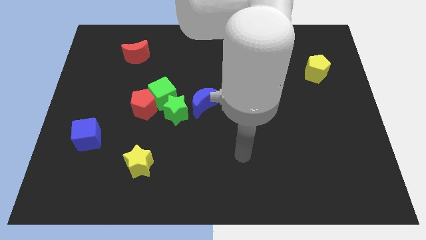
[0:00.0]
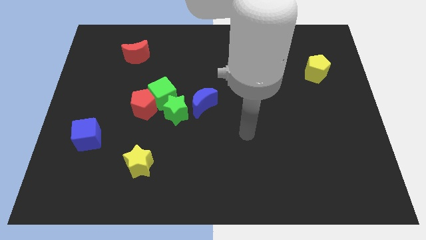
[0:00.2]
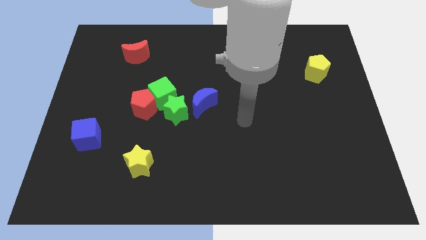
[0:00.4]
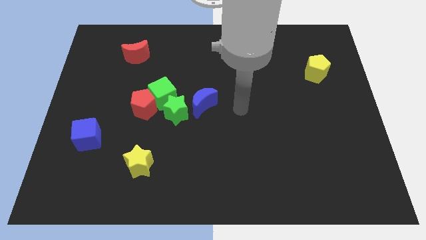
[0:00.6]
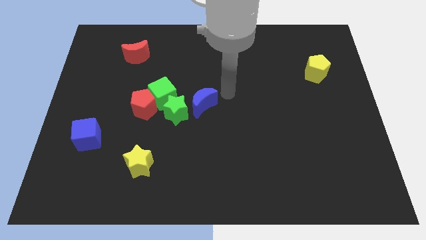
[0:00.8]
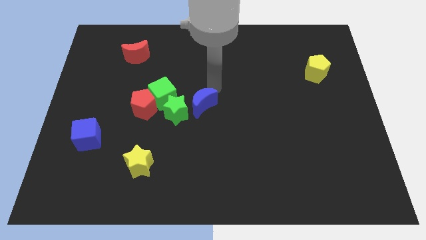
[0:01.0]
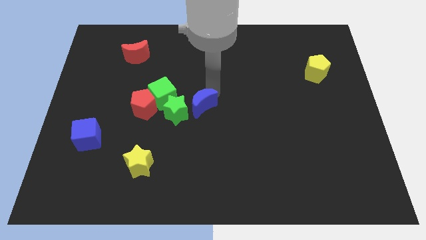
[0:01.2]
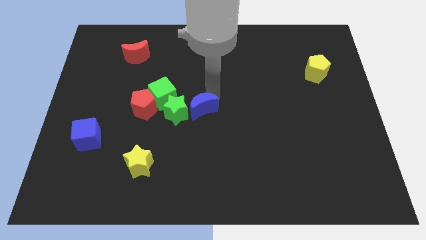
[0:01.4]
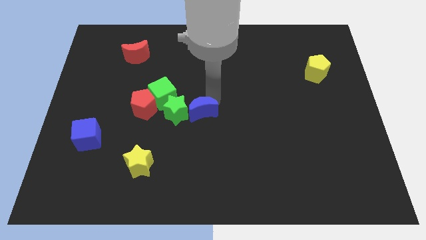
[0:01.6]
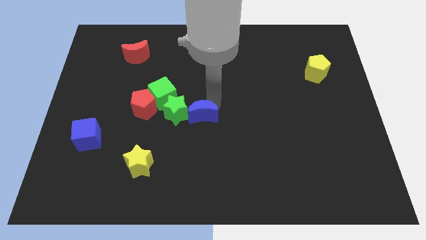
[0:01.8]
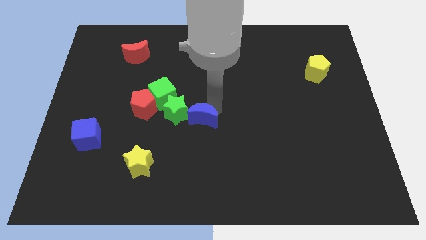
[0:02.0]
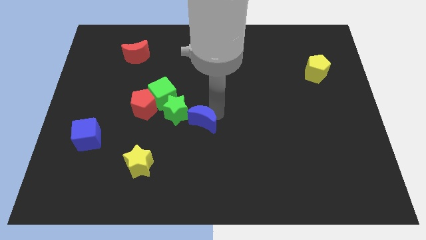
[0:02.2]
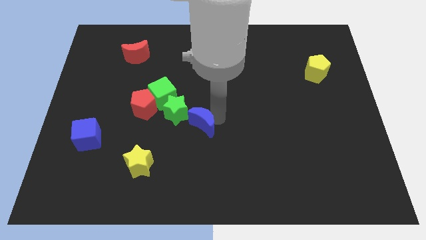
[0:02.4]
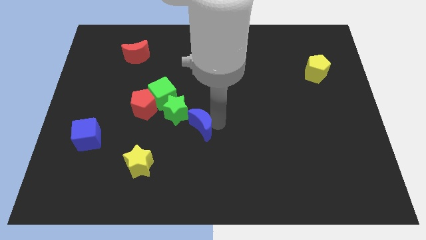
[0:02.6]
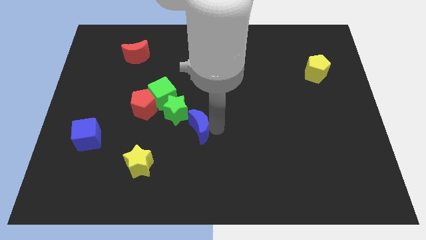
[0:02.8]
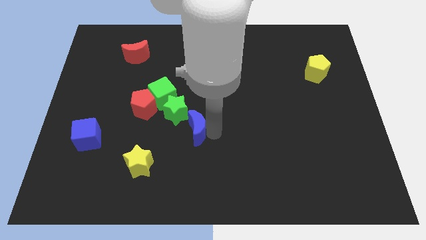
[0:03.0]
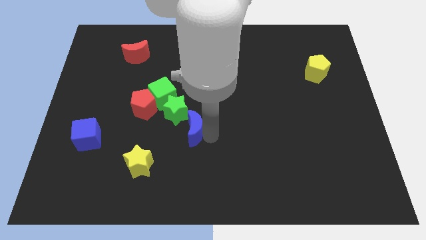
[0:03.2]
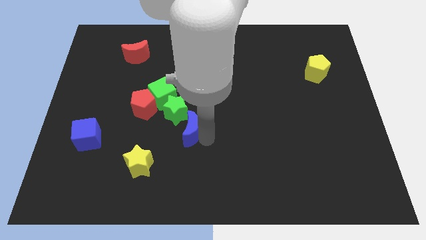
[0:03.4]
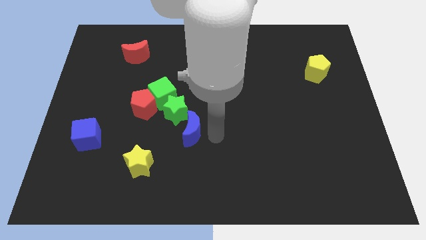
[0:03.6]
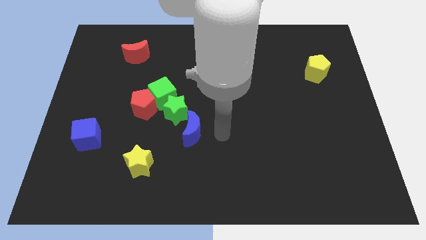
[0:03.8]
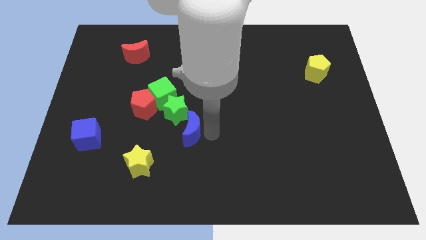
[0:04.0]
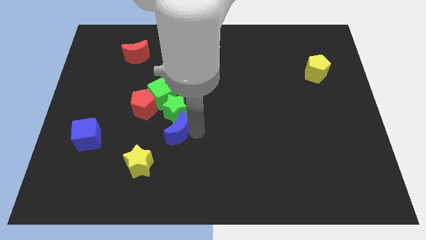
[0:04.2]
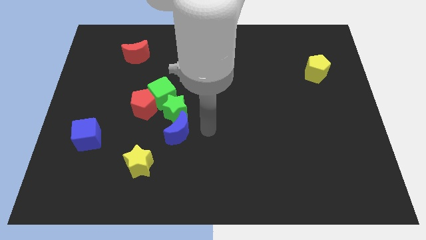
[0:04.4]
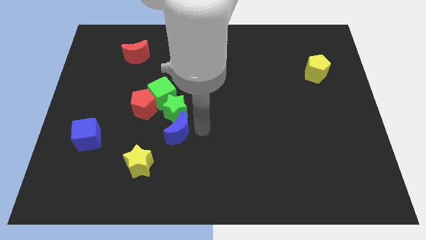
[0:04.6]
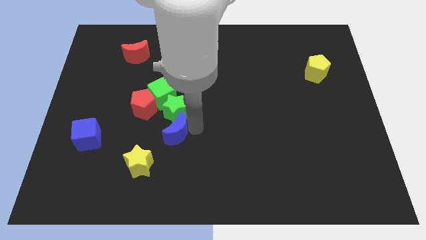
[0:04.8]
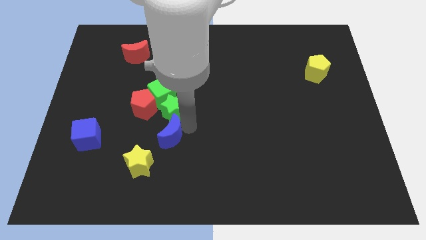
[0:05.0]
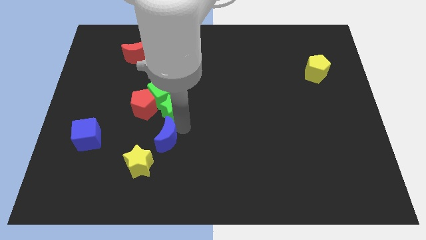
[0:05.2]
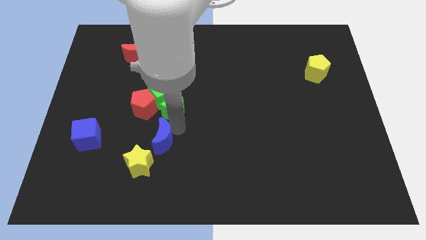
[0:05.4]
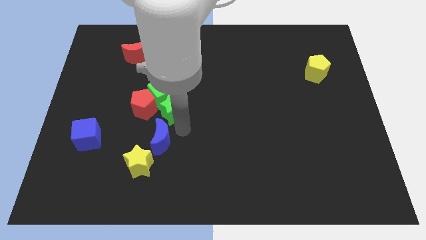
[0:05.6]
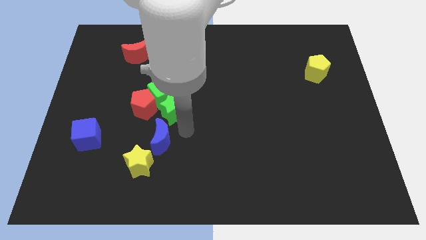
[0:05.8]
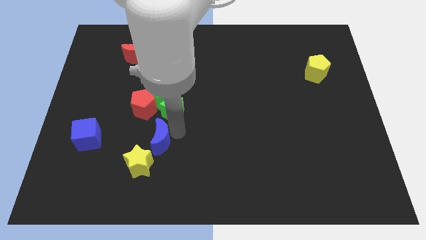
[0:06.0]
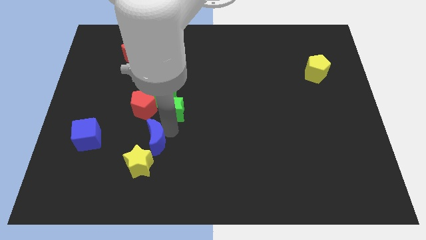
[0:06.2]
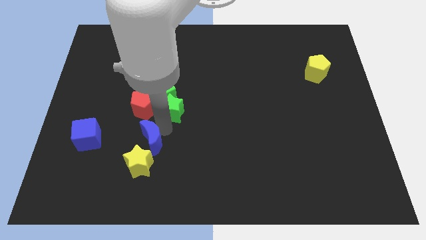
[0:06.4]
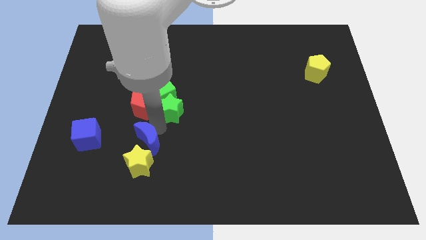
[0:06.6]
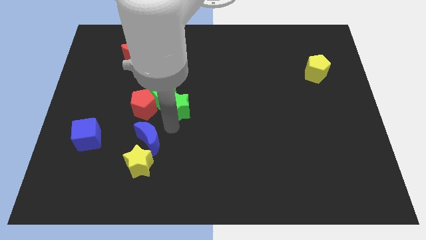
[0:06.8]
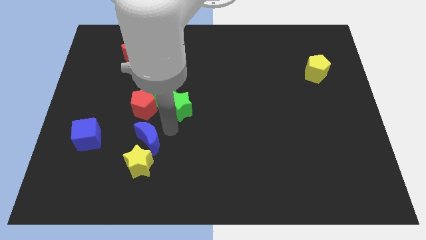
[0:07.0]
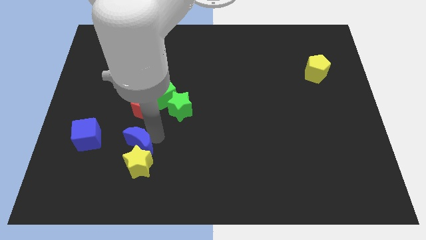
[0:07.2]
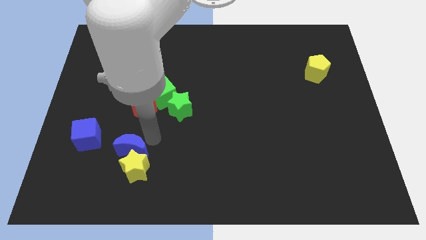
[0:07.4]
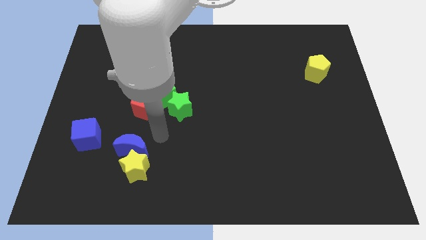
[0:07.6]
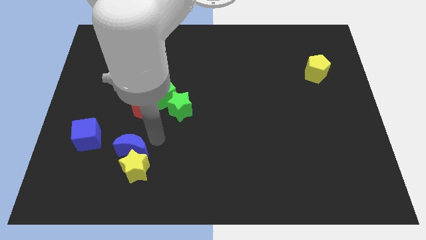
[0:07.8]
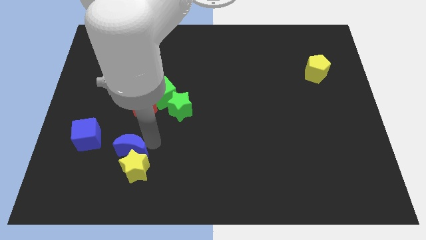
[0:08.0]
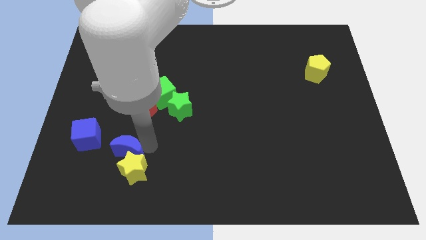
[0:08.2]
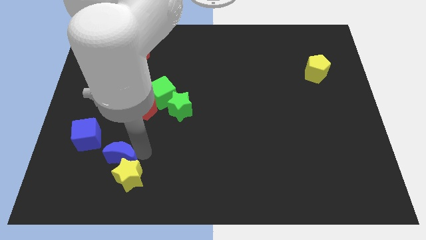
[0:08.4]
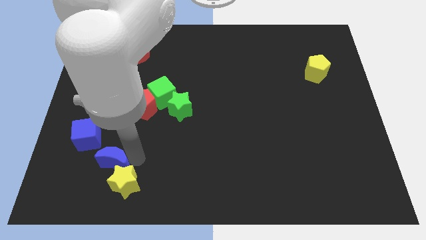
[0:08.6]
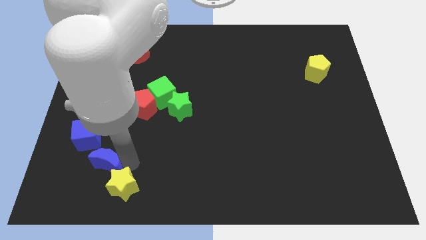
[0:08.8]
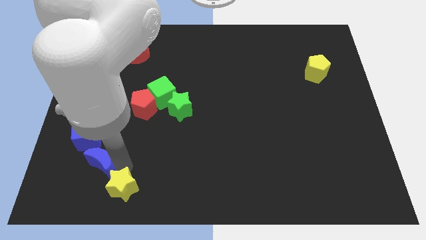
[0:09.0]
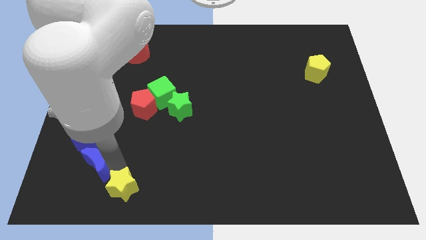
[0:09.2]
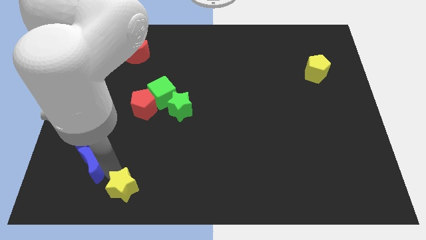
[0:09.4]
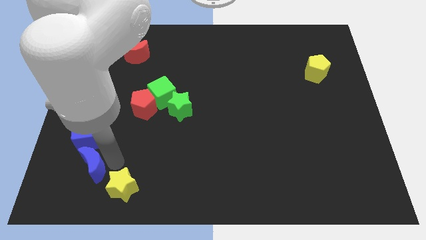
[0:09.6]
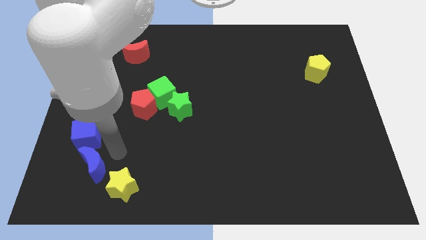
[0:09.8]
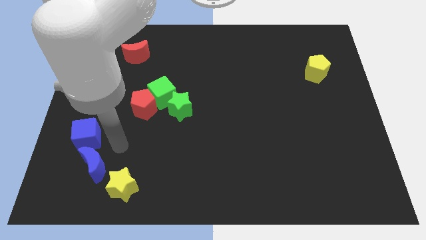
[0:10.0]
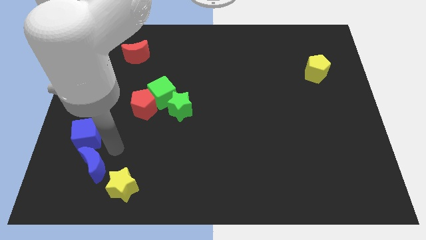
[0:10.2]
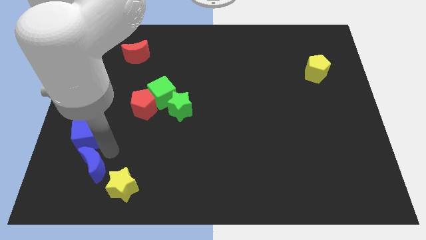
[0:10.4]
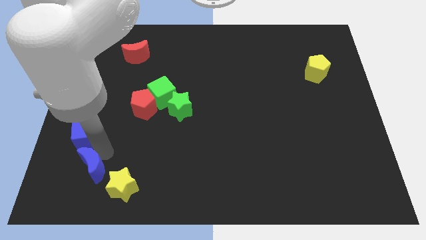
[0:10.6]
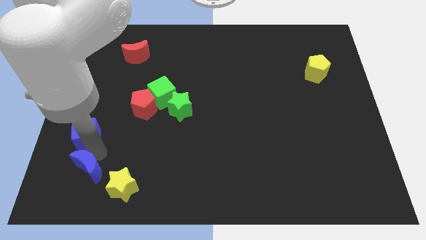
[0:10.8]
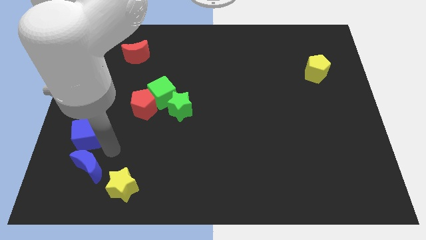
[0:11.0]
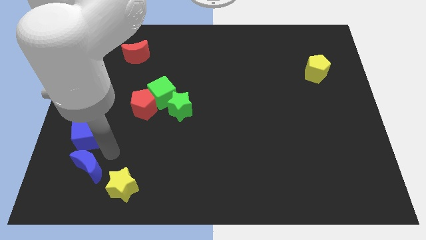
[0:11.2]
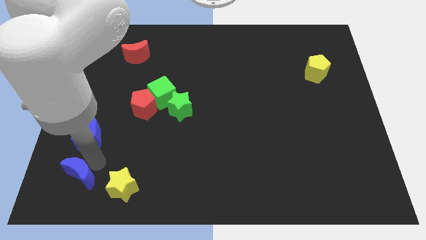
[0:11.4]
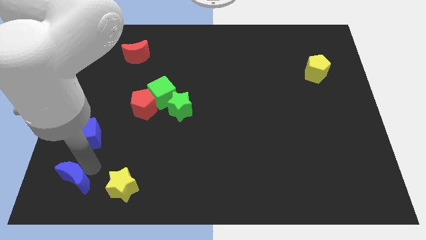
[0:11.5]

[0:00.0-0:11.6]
move the blue moon to the bottom left of the board
